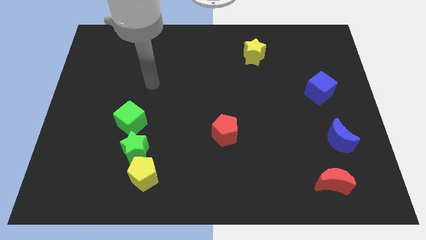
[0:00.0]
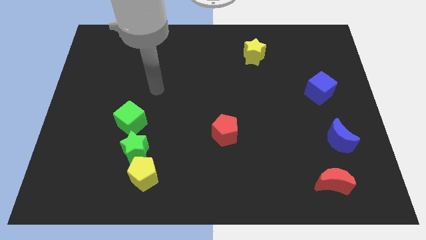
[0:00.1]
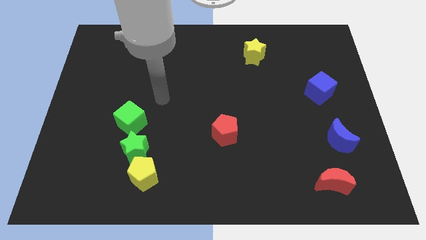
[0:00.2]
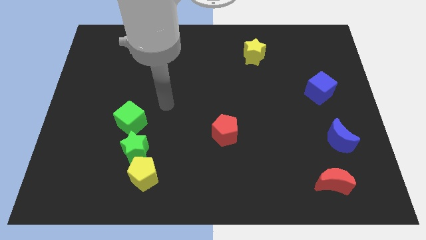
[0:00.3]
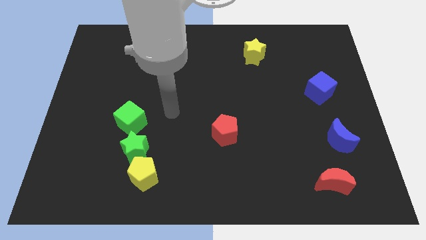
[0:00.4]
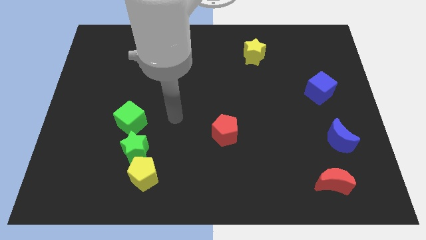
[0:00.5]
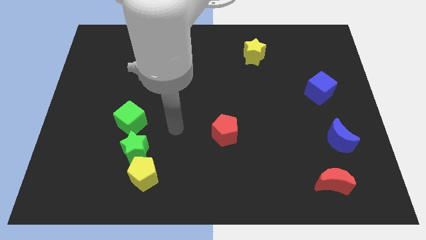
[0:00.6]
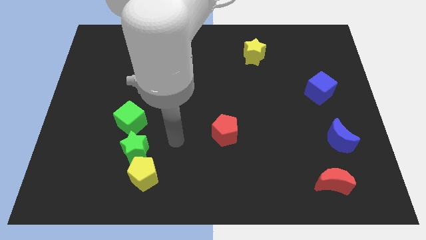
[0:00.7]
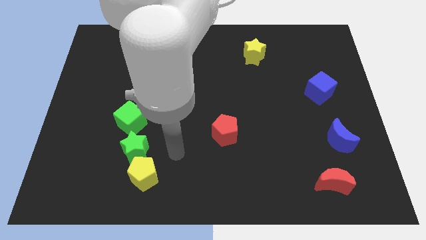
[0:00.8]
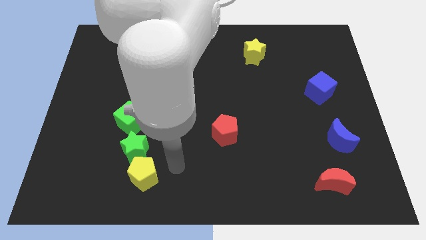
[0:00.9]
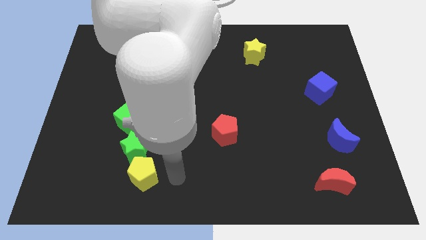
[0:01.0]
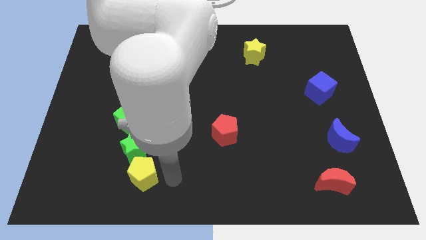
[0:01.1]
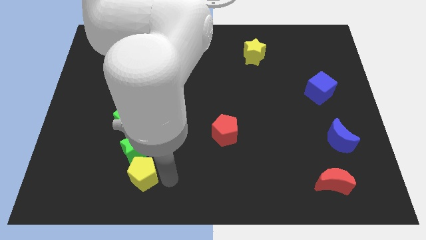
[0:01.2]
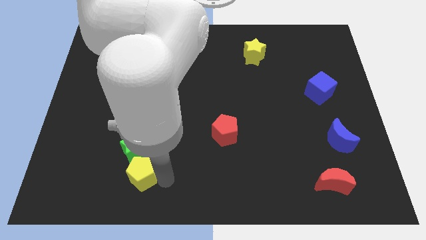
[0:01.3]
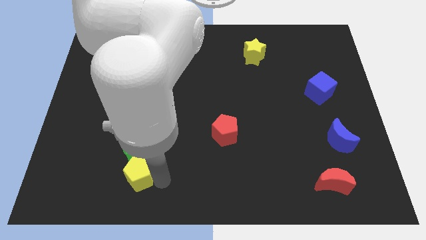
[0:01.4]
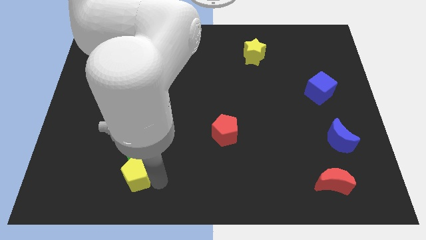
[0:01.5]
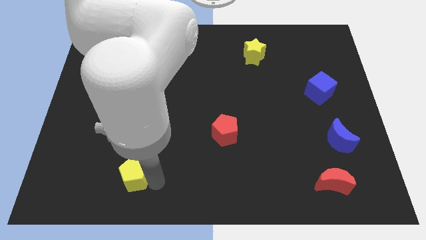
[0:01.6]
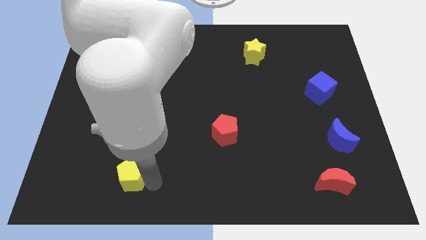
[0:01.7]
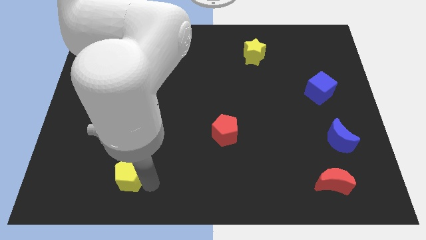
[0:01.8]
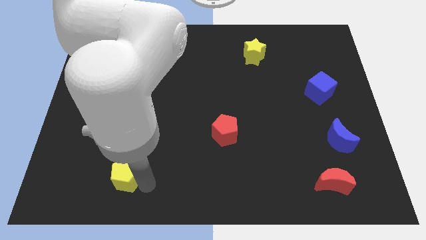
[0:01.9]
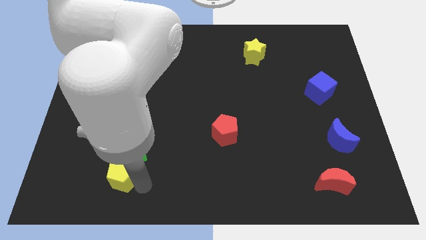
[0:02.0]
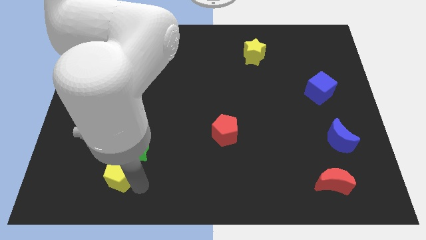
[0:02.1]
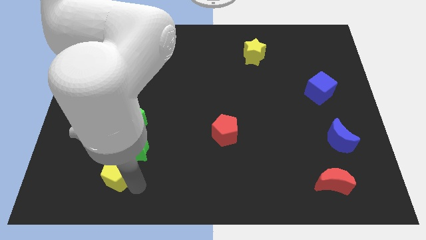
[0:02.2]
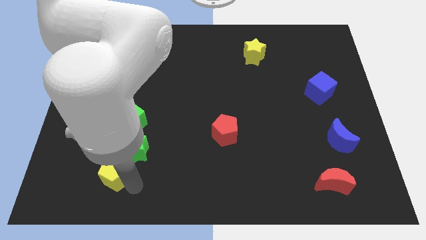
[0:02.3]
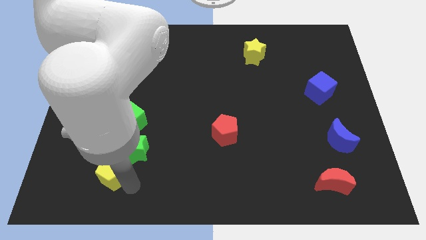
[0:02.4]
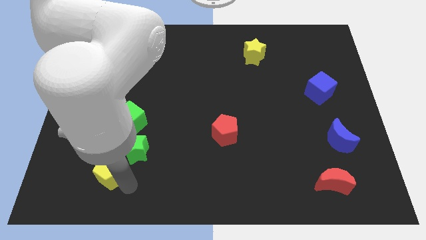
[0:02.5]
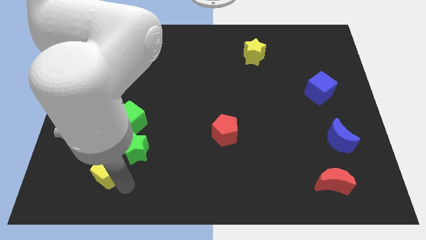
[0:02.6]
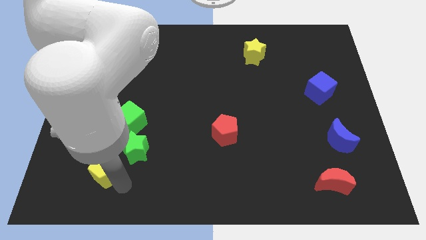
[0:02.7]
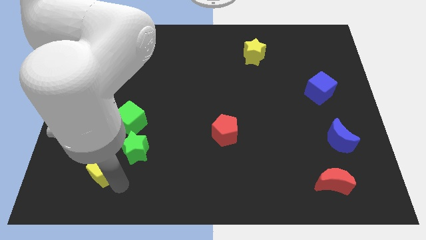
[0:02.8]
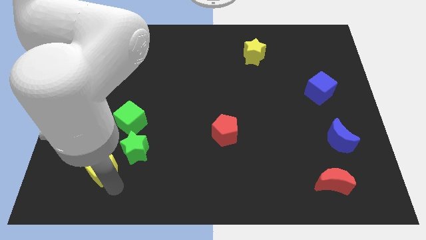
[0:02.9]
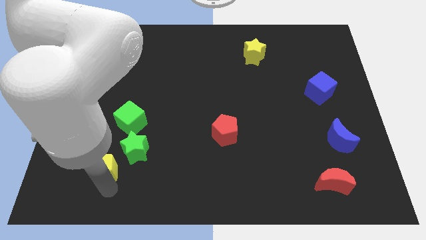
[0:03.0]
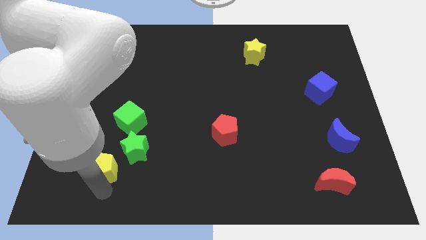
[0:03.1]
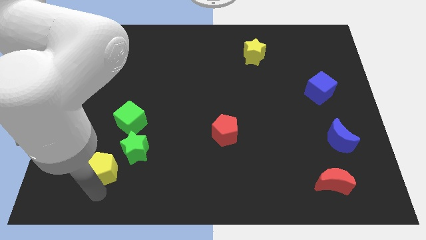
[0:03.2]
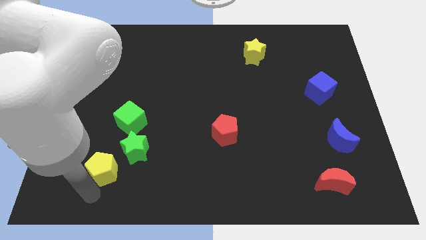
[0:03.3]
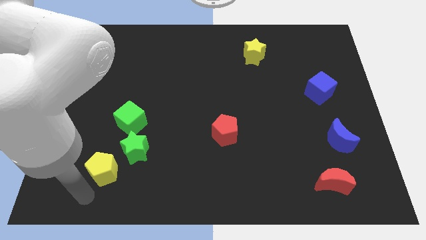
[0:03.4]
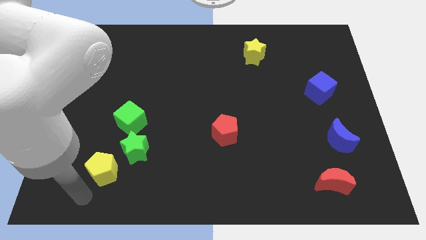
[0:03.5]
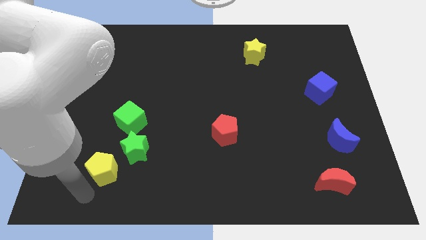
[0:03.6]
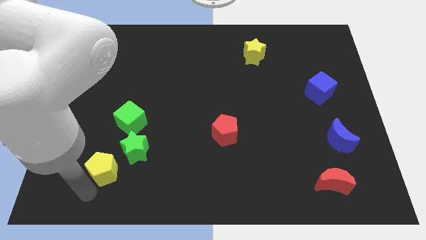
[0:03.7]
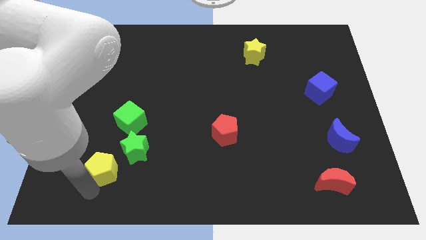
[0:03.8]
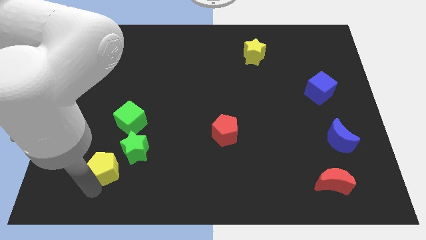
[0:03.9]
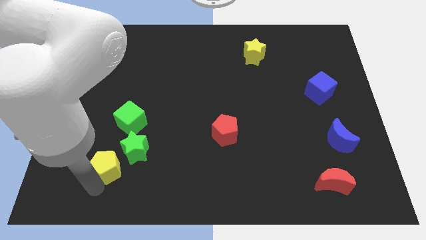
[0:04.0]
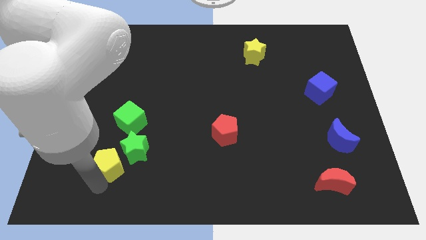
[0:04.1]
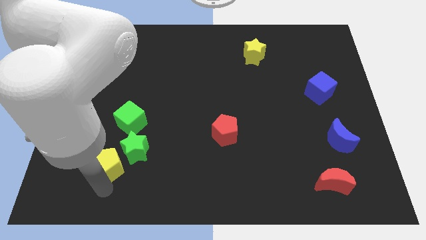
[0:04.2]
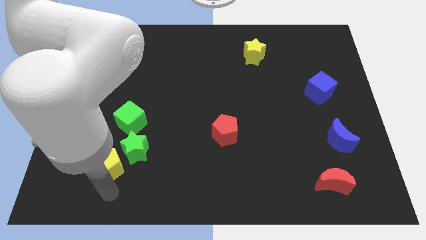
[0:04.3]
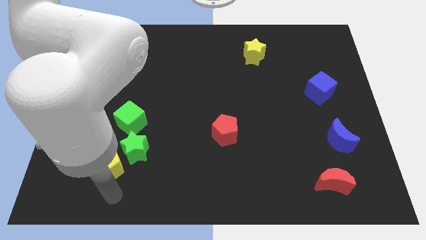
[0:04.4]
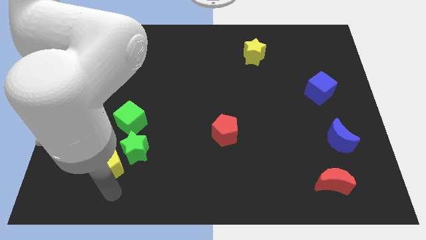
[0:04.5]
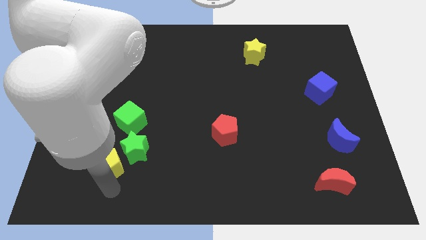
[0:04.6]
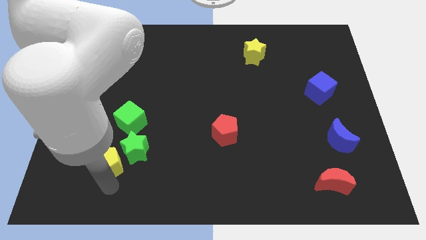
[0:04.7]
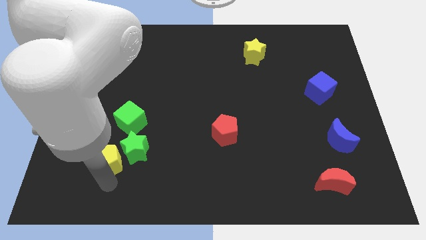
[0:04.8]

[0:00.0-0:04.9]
slightly slide the yellow pentagon up and left

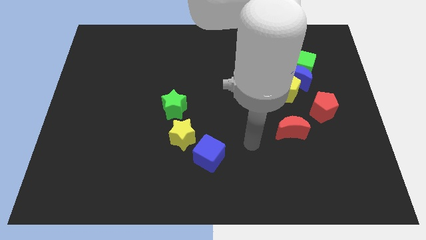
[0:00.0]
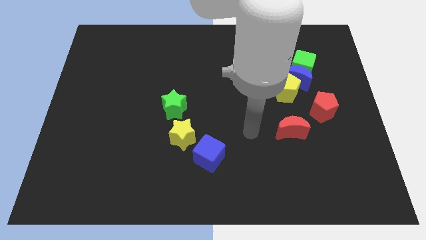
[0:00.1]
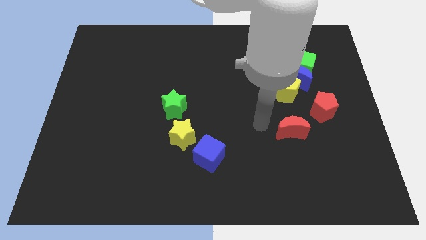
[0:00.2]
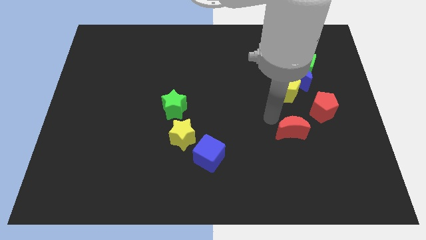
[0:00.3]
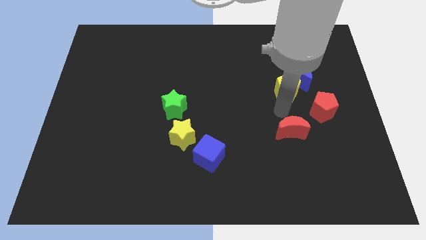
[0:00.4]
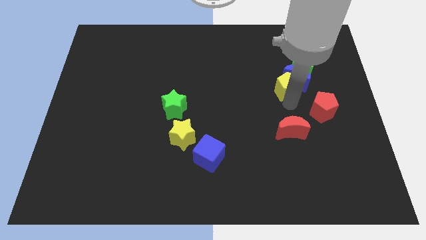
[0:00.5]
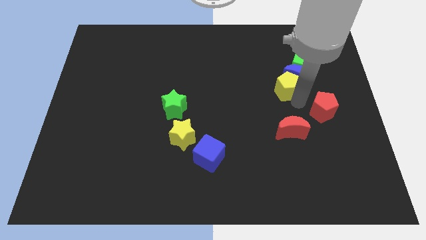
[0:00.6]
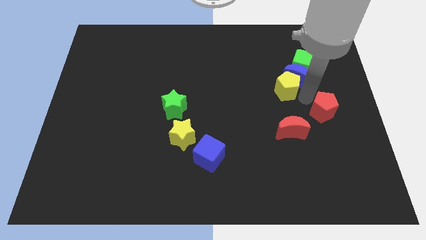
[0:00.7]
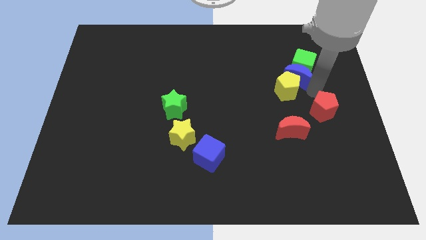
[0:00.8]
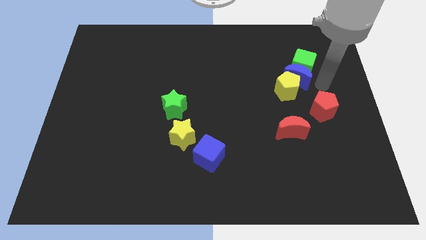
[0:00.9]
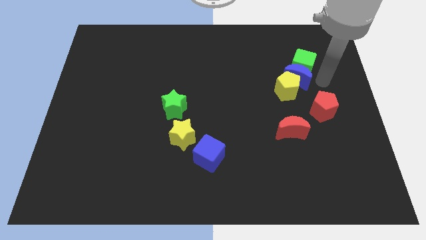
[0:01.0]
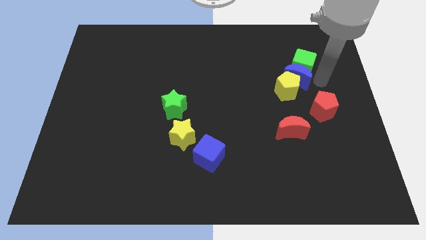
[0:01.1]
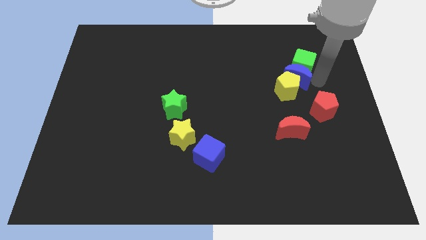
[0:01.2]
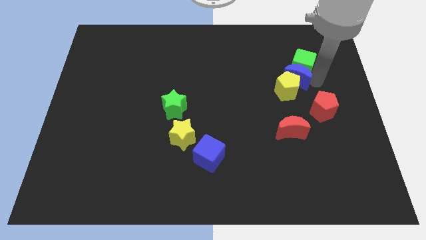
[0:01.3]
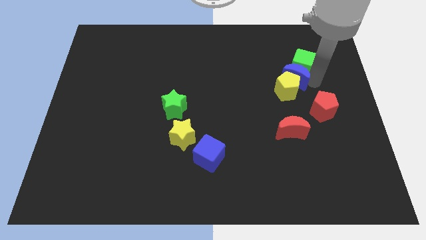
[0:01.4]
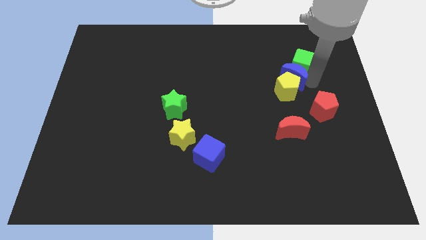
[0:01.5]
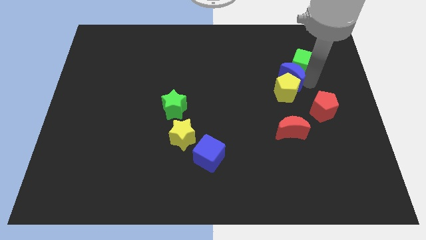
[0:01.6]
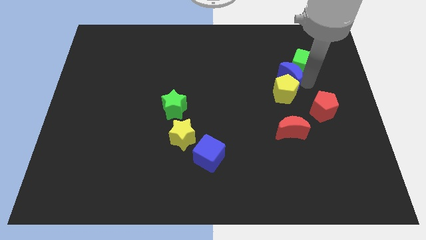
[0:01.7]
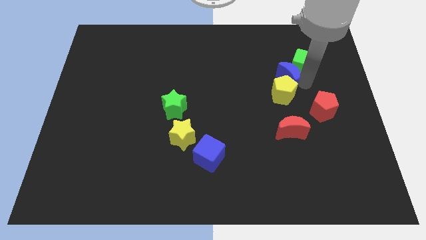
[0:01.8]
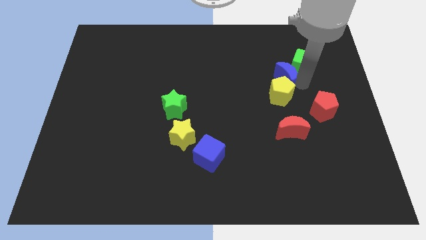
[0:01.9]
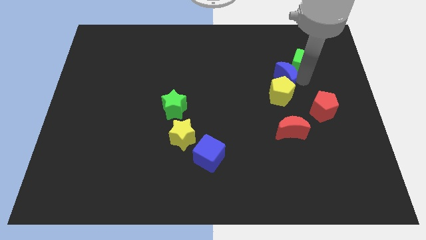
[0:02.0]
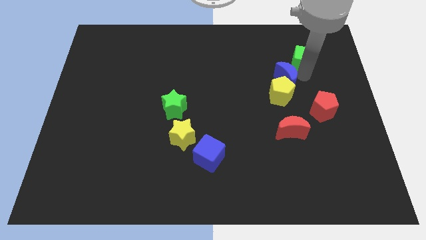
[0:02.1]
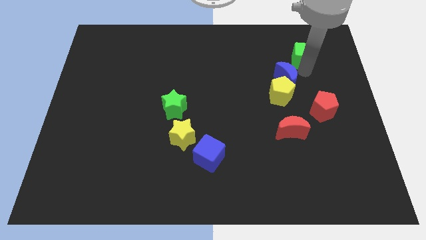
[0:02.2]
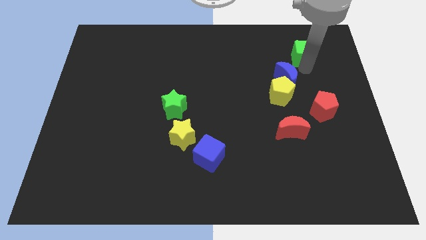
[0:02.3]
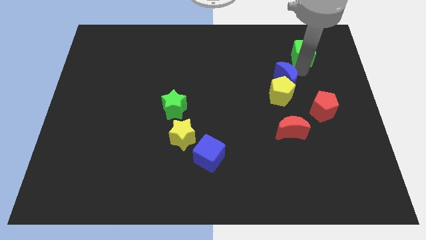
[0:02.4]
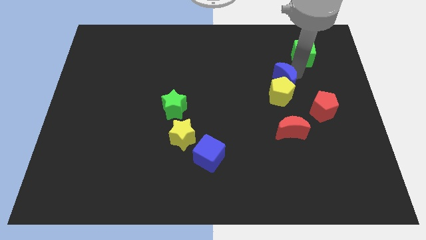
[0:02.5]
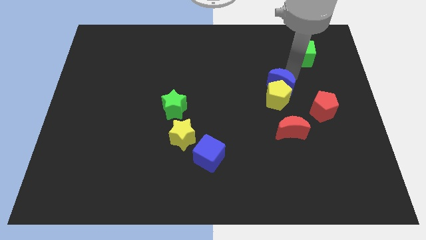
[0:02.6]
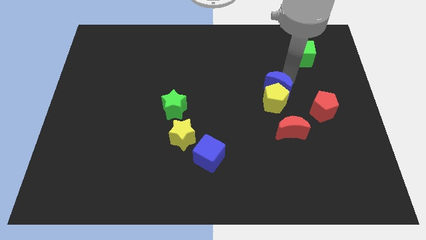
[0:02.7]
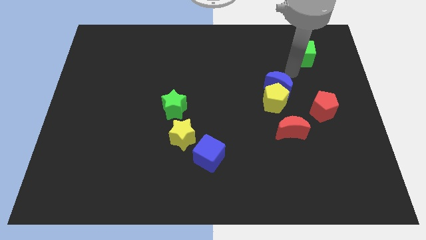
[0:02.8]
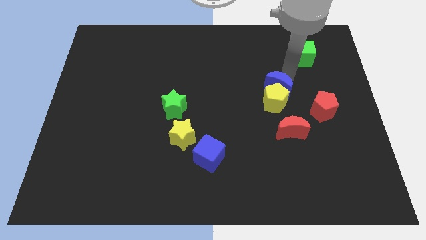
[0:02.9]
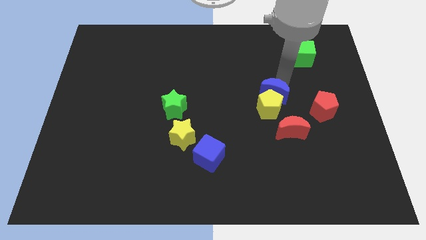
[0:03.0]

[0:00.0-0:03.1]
move the blue moon downwards and left somewhat
